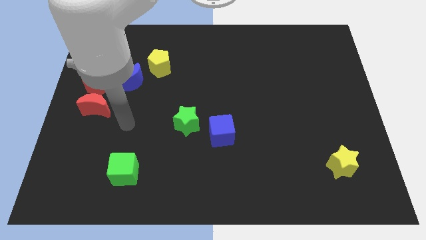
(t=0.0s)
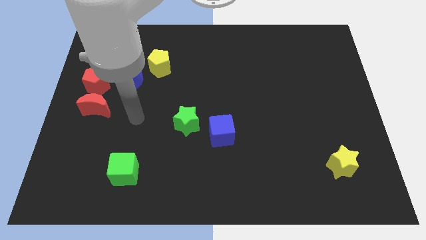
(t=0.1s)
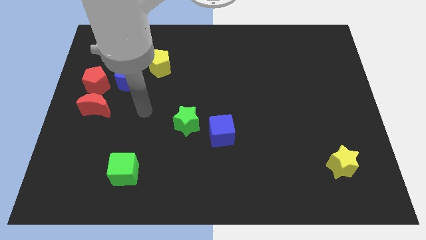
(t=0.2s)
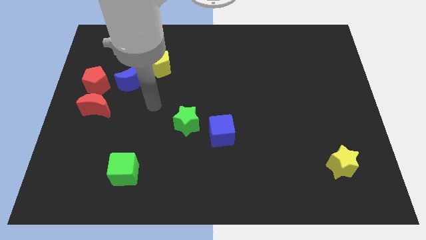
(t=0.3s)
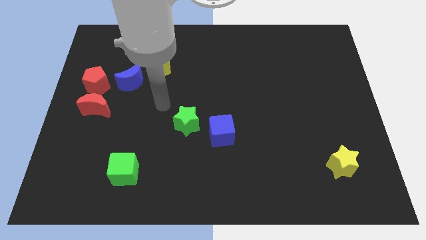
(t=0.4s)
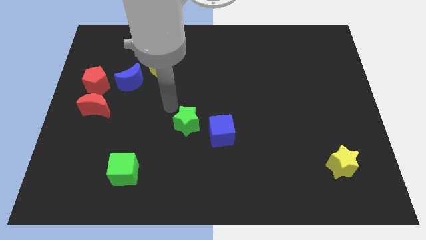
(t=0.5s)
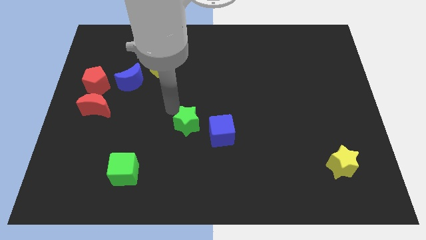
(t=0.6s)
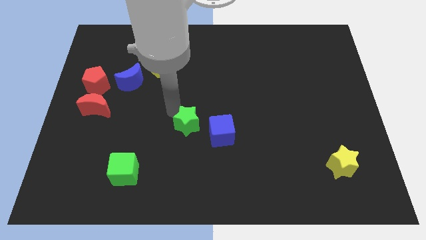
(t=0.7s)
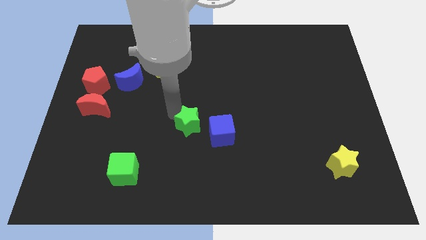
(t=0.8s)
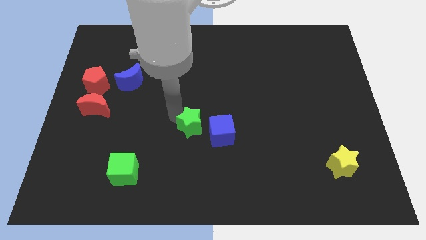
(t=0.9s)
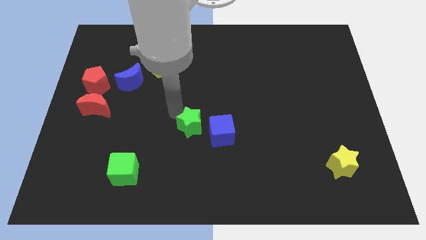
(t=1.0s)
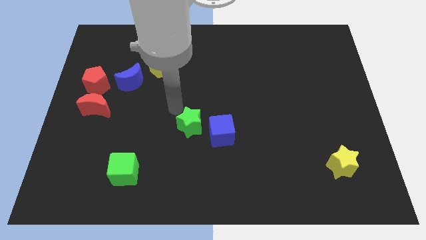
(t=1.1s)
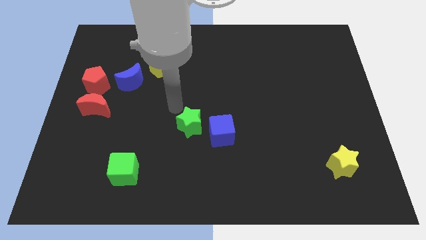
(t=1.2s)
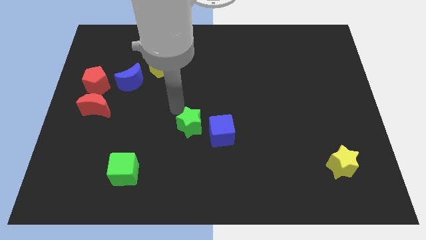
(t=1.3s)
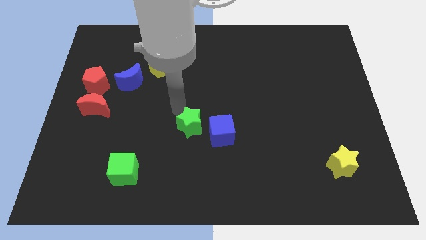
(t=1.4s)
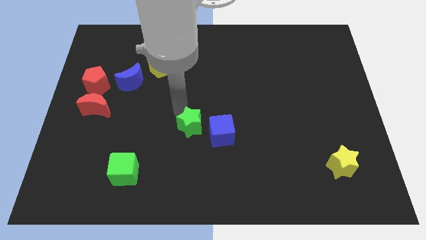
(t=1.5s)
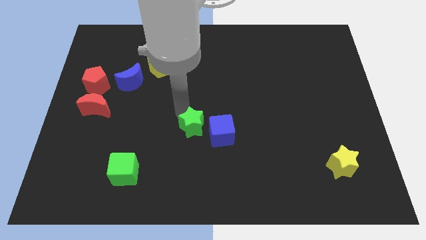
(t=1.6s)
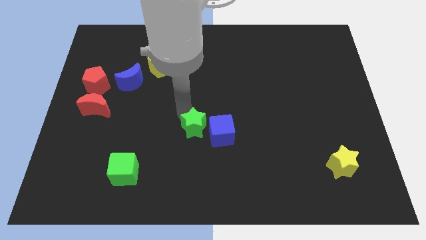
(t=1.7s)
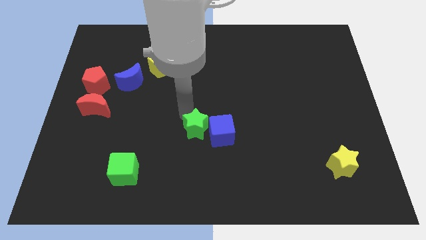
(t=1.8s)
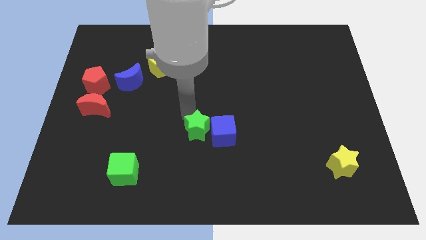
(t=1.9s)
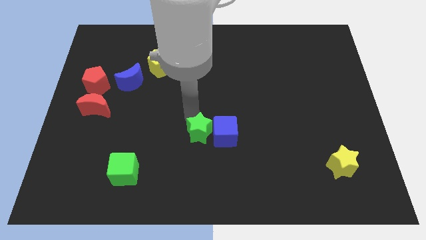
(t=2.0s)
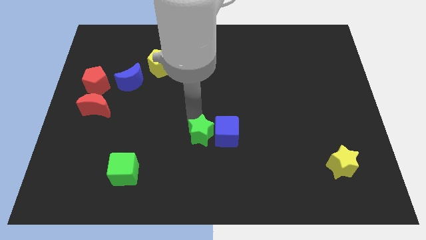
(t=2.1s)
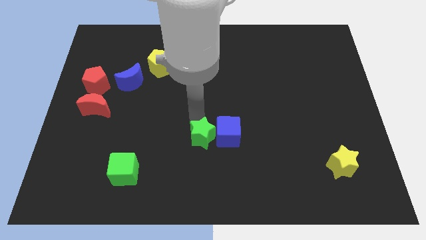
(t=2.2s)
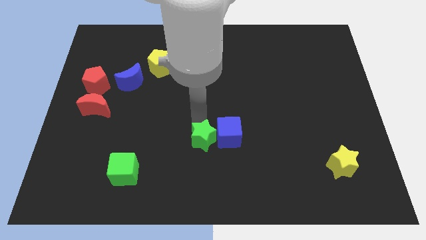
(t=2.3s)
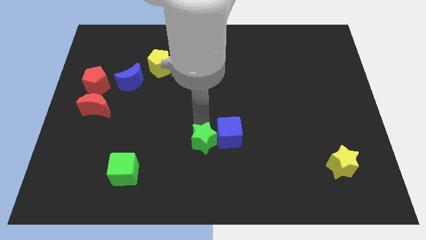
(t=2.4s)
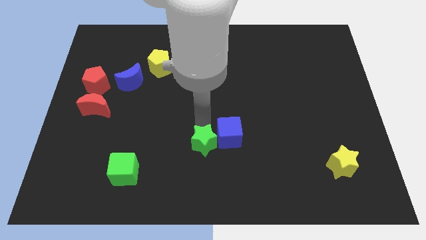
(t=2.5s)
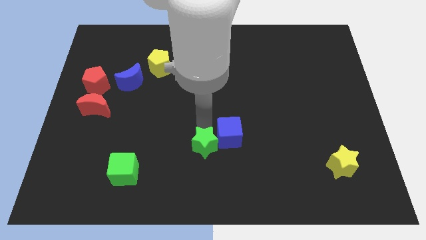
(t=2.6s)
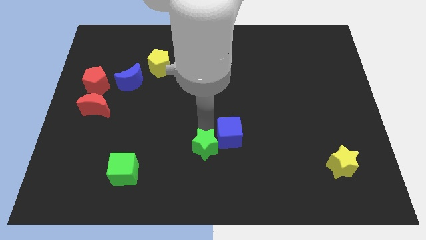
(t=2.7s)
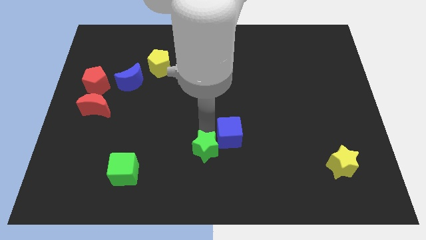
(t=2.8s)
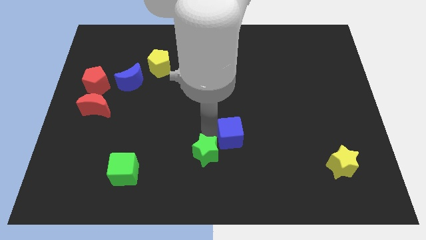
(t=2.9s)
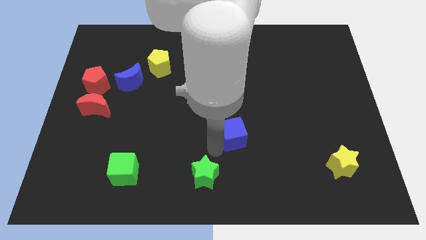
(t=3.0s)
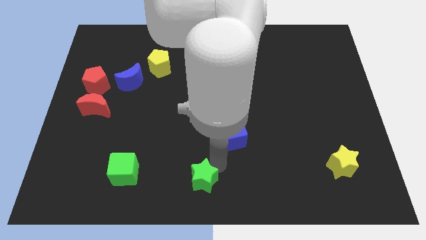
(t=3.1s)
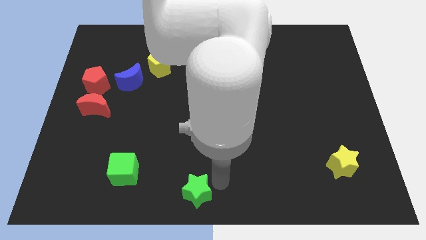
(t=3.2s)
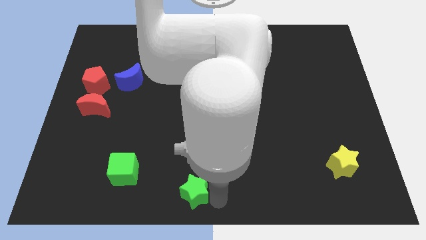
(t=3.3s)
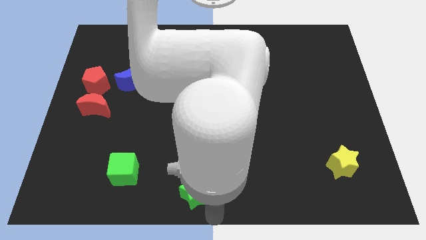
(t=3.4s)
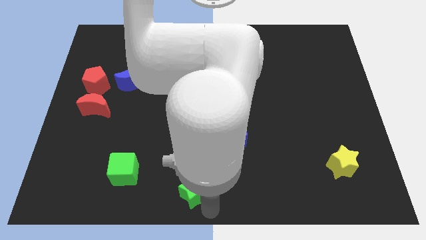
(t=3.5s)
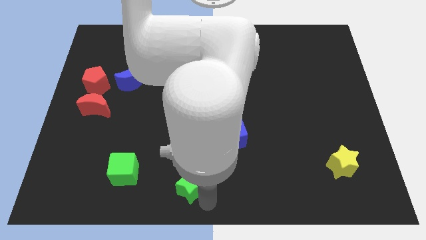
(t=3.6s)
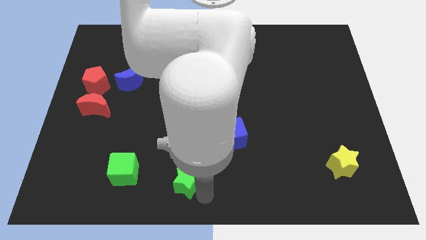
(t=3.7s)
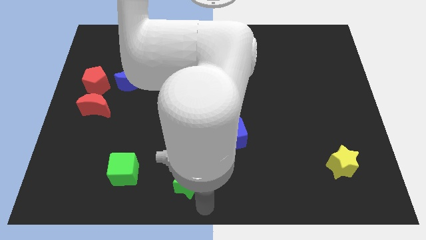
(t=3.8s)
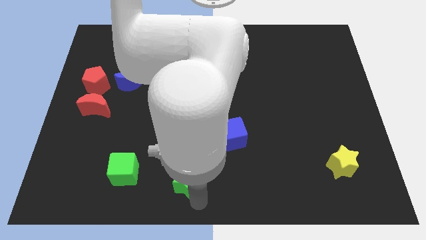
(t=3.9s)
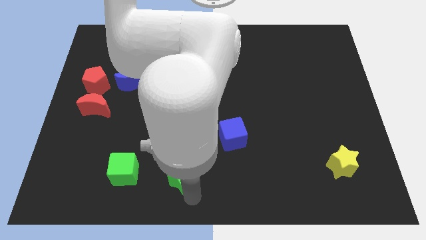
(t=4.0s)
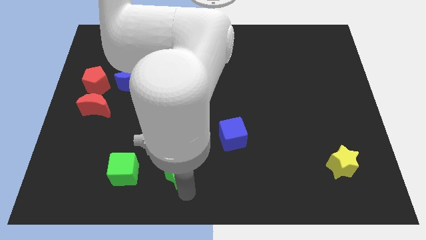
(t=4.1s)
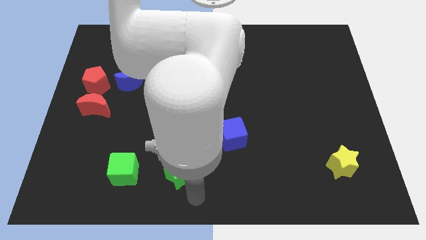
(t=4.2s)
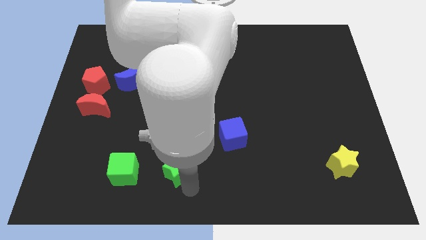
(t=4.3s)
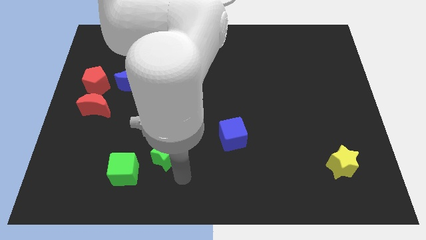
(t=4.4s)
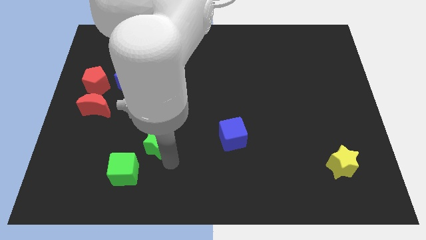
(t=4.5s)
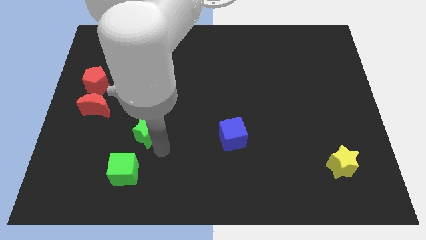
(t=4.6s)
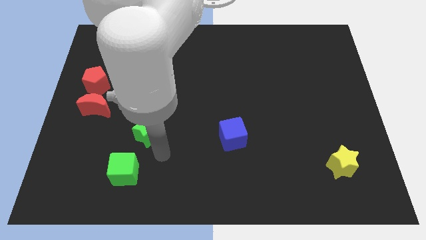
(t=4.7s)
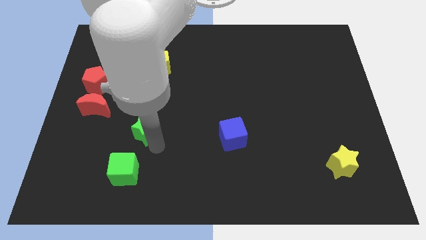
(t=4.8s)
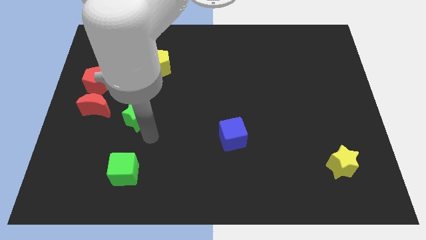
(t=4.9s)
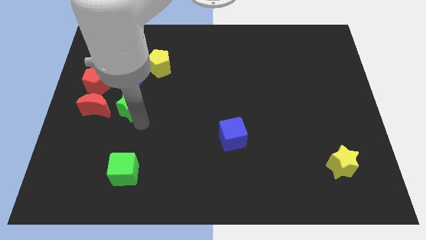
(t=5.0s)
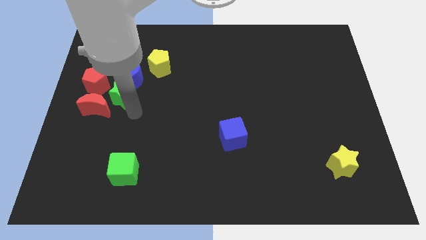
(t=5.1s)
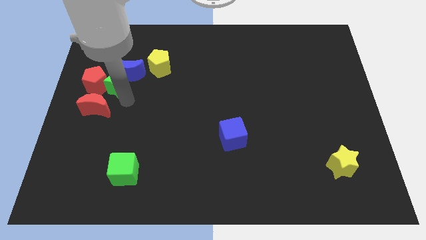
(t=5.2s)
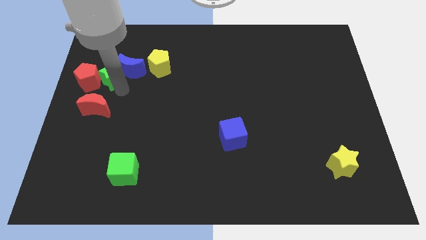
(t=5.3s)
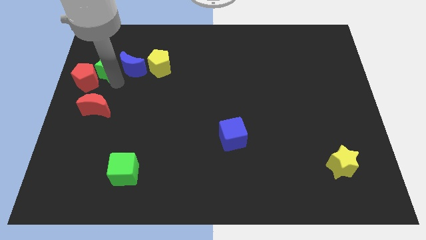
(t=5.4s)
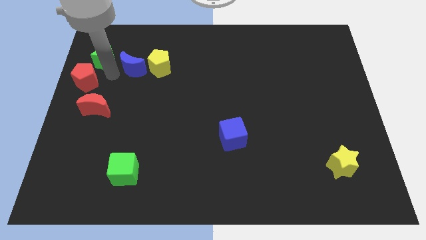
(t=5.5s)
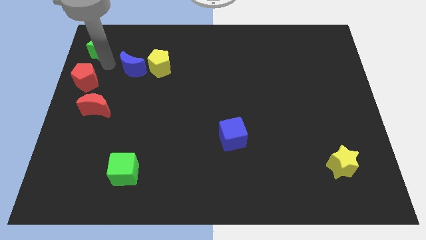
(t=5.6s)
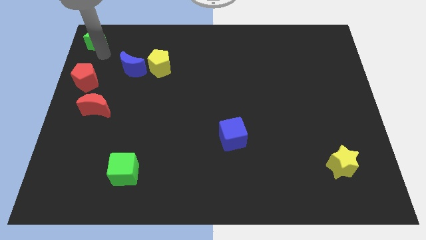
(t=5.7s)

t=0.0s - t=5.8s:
move the green star to the upper left corner

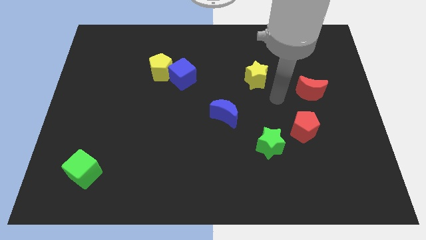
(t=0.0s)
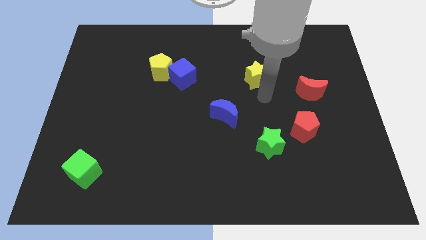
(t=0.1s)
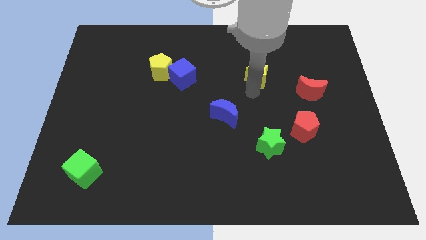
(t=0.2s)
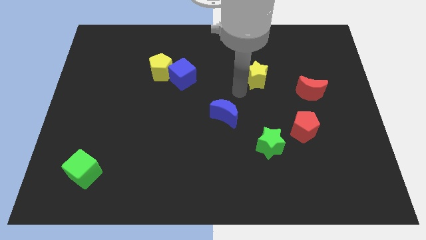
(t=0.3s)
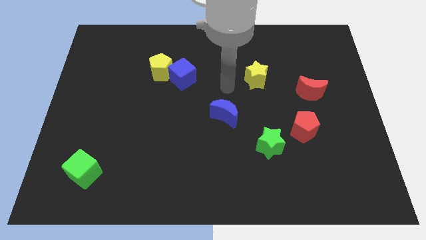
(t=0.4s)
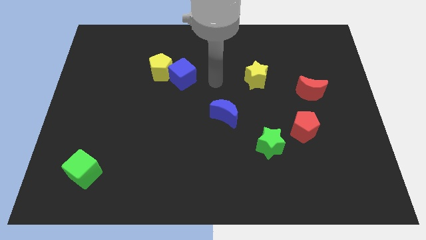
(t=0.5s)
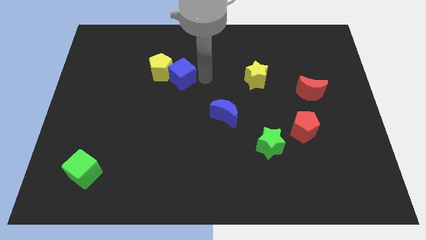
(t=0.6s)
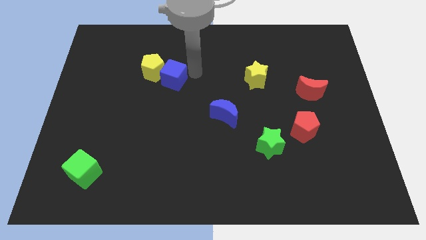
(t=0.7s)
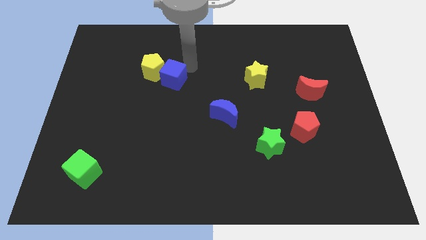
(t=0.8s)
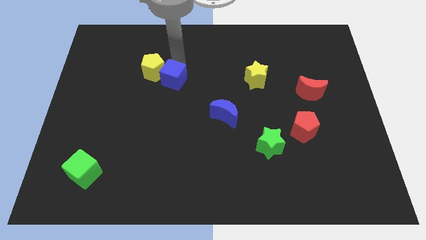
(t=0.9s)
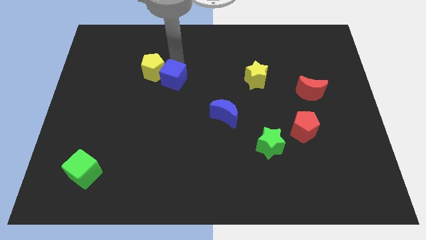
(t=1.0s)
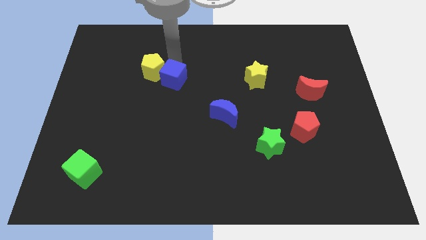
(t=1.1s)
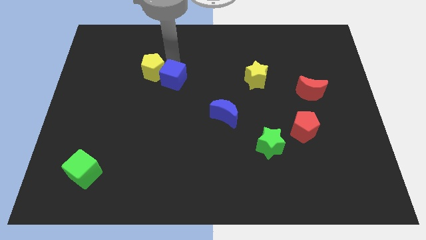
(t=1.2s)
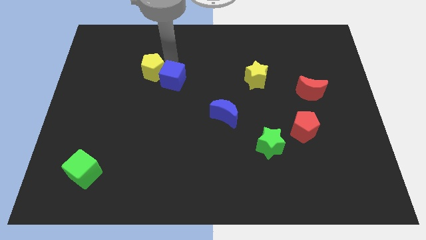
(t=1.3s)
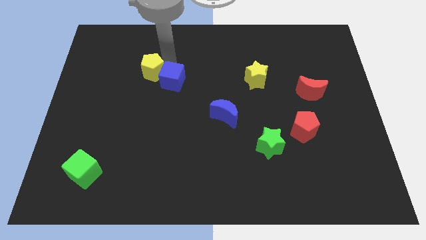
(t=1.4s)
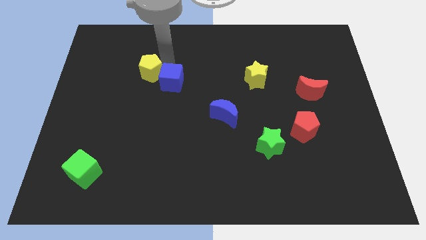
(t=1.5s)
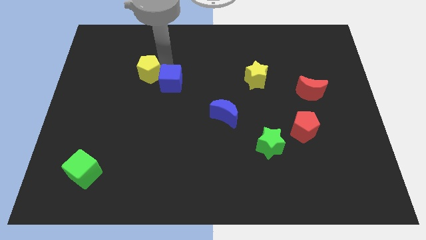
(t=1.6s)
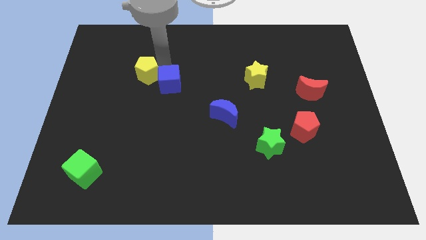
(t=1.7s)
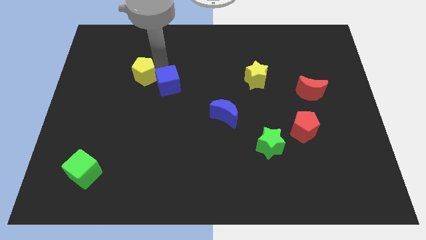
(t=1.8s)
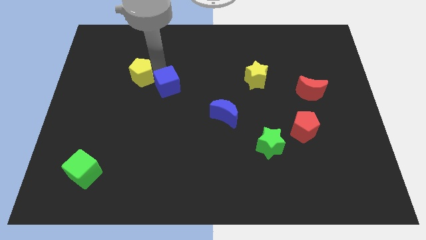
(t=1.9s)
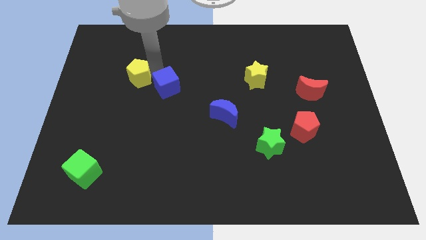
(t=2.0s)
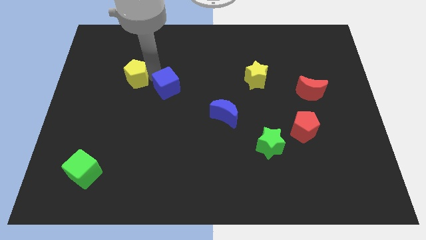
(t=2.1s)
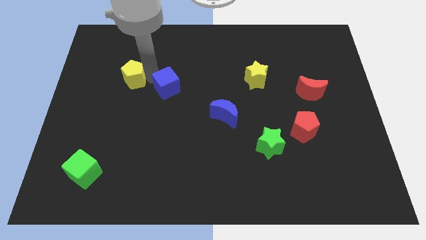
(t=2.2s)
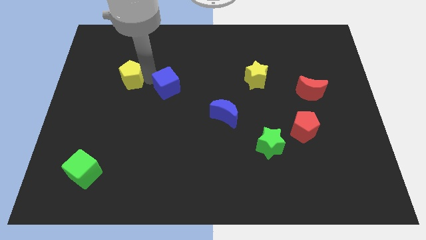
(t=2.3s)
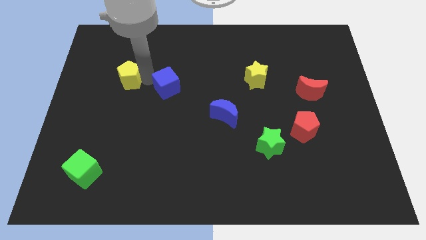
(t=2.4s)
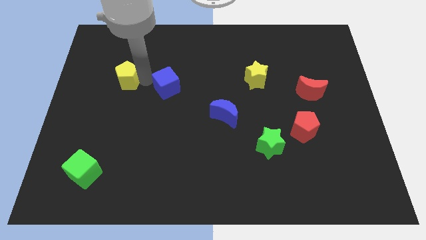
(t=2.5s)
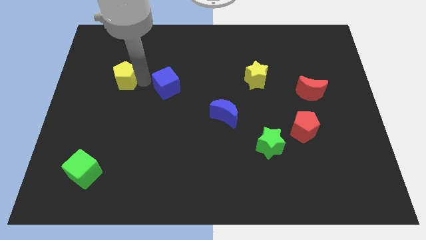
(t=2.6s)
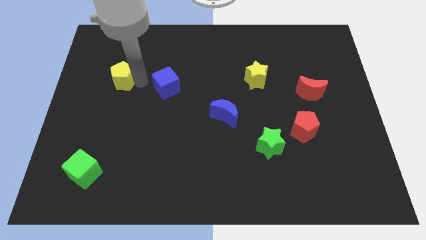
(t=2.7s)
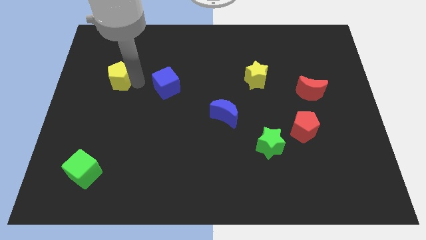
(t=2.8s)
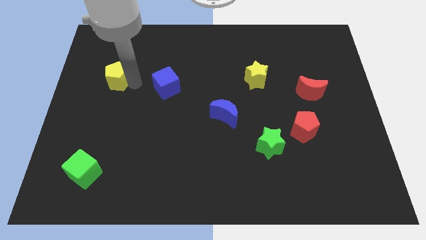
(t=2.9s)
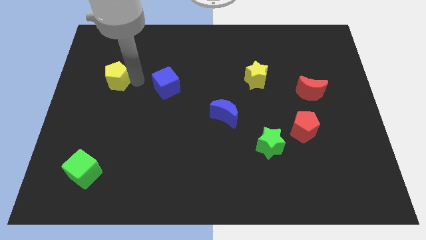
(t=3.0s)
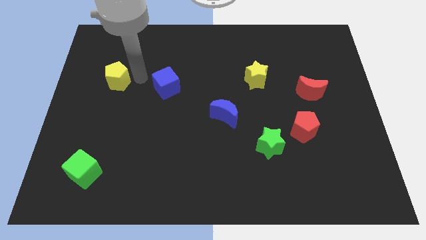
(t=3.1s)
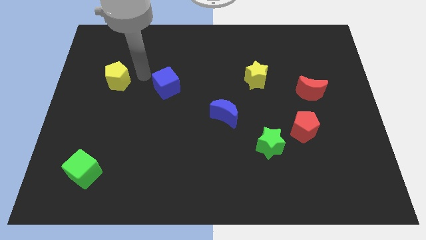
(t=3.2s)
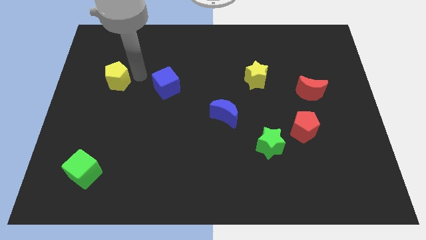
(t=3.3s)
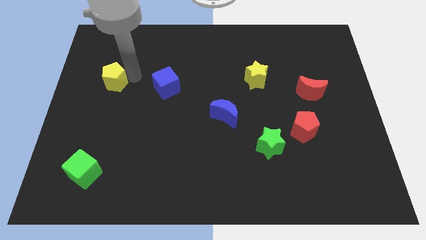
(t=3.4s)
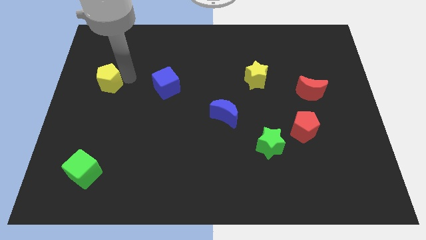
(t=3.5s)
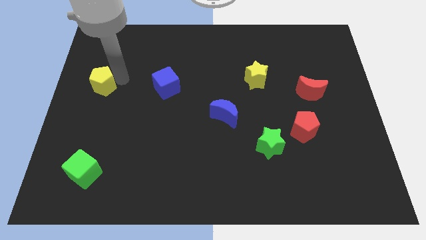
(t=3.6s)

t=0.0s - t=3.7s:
push the yellow pentagon to the left side
